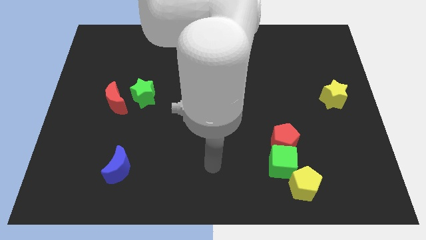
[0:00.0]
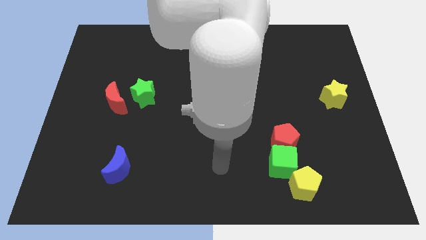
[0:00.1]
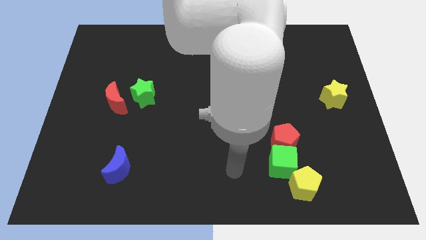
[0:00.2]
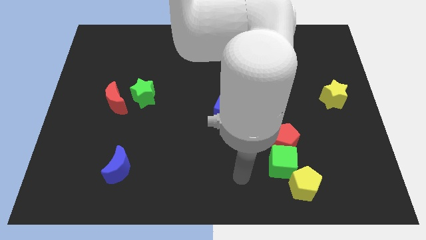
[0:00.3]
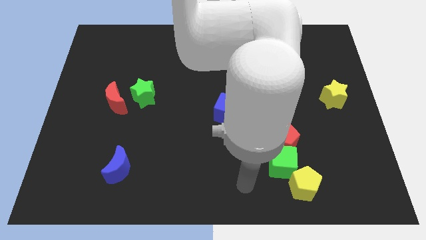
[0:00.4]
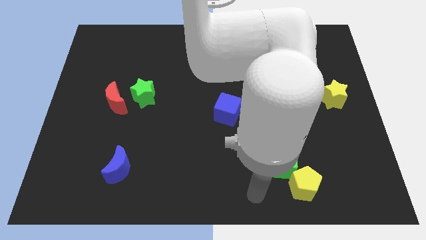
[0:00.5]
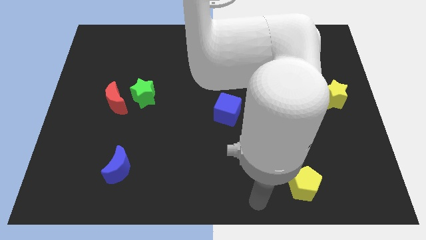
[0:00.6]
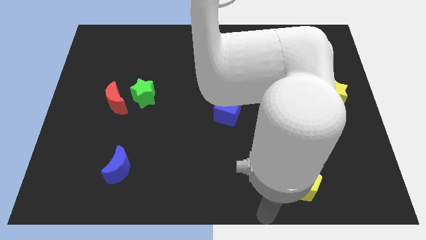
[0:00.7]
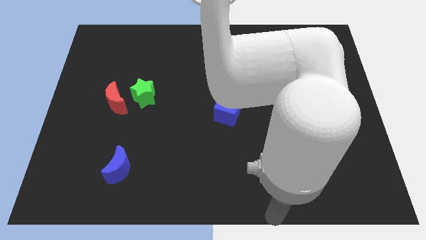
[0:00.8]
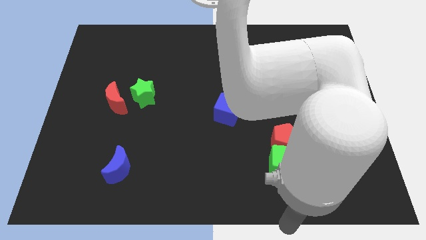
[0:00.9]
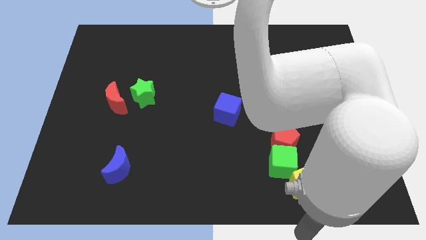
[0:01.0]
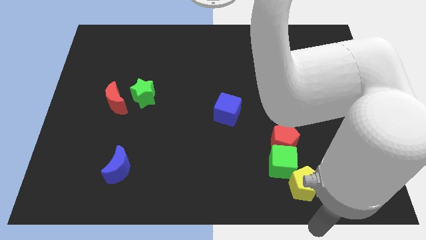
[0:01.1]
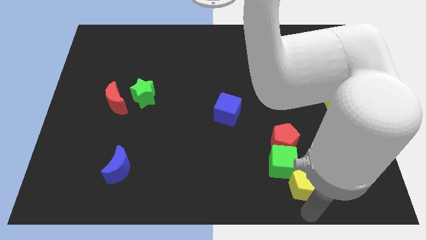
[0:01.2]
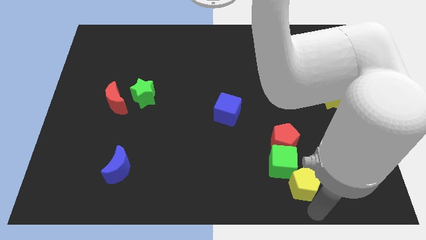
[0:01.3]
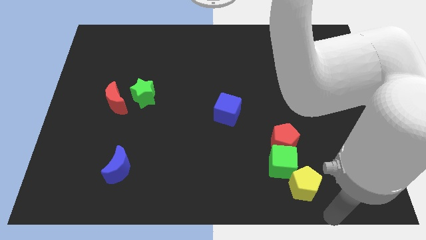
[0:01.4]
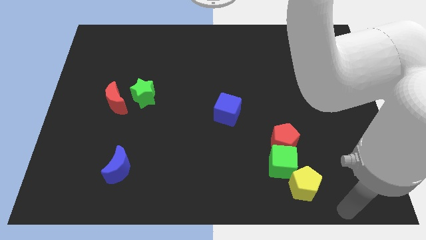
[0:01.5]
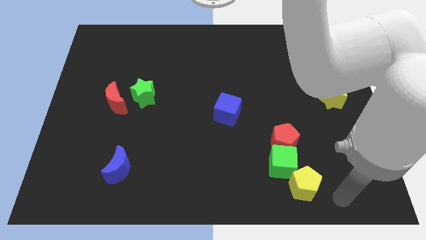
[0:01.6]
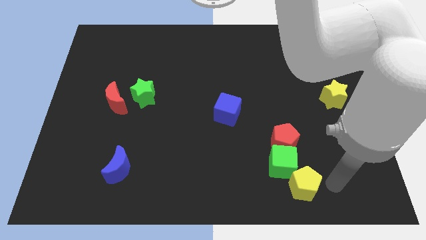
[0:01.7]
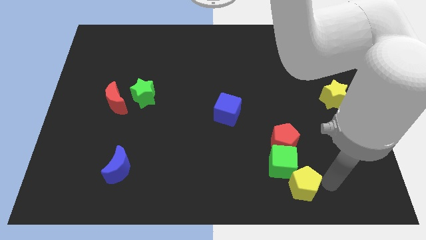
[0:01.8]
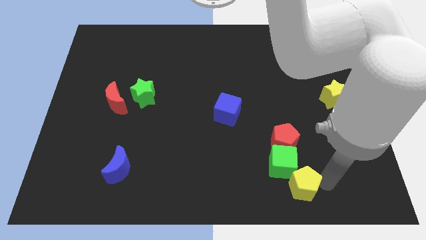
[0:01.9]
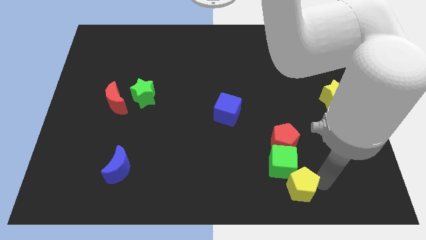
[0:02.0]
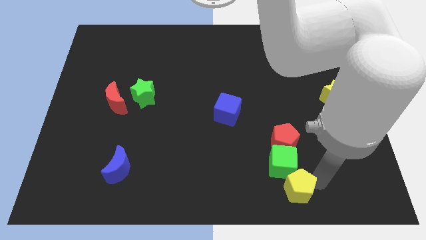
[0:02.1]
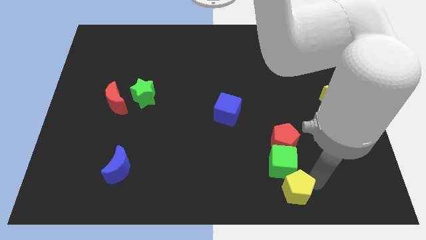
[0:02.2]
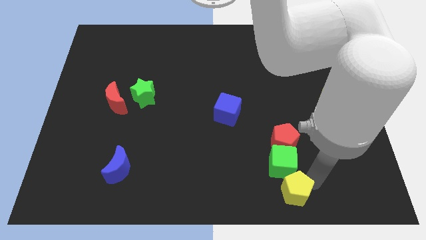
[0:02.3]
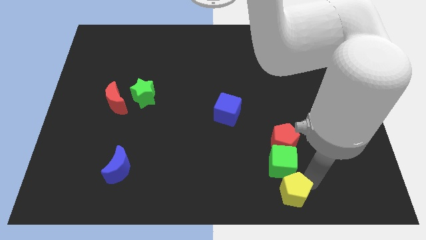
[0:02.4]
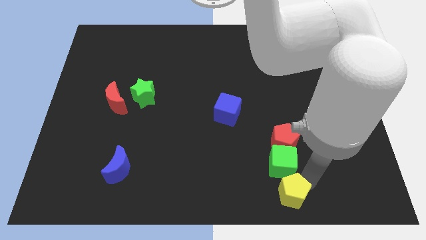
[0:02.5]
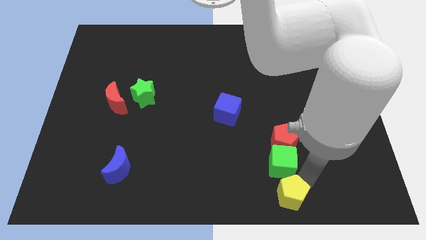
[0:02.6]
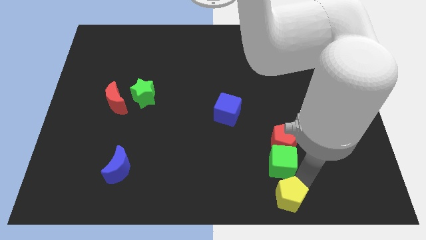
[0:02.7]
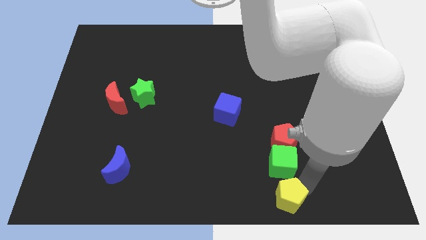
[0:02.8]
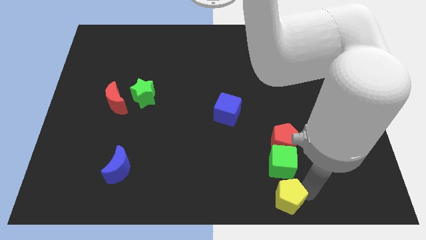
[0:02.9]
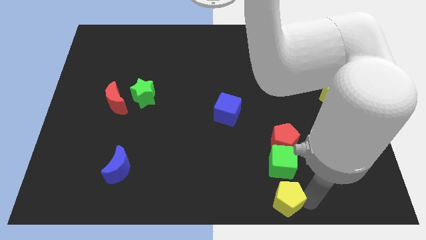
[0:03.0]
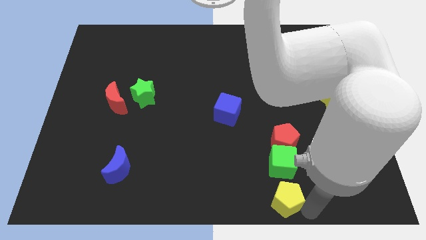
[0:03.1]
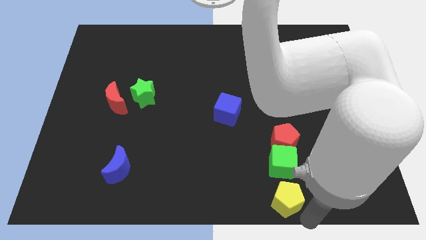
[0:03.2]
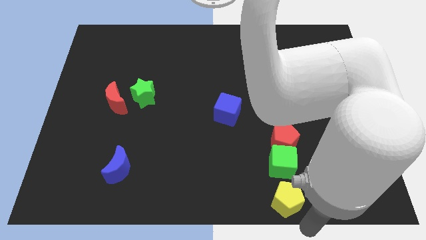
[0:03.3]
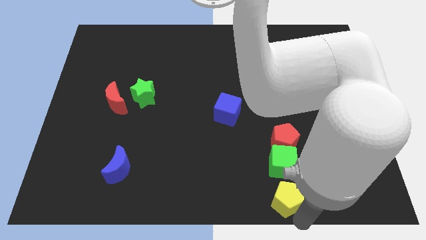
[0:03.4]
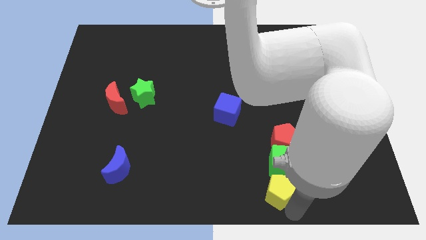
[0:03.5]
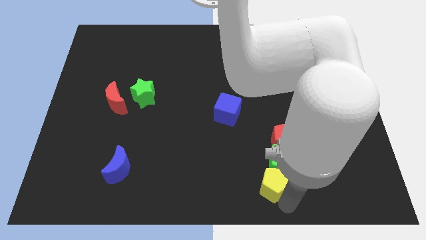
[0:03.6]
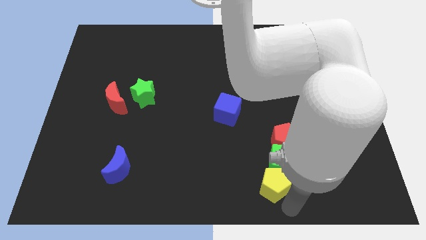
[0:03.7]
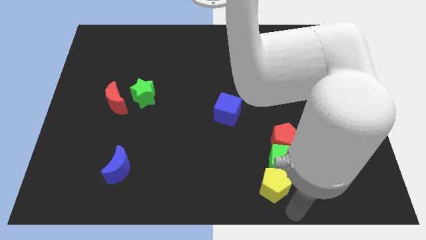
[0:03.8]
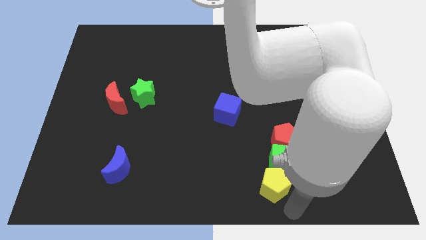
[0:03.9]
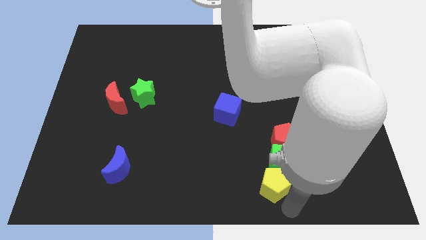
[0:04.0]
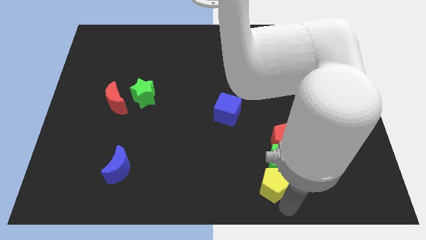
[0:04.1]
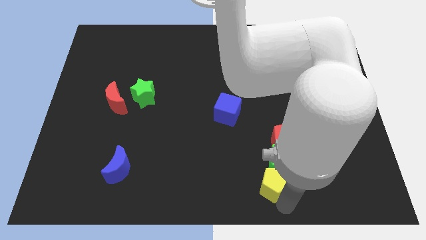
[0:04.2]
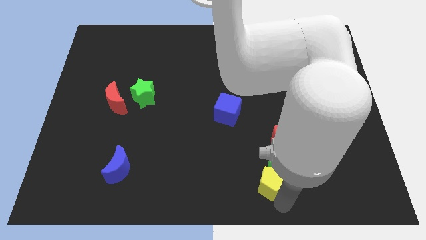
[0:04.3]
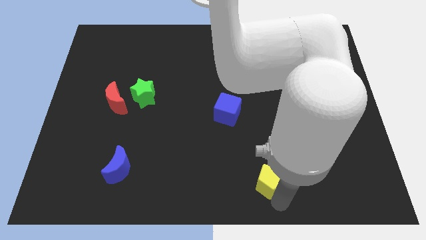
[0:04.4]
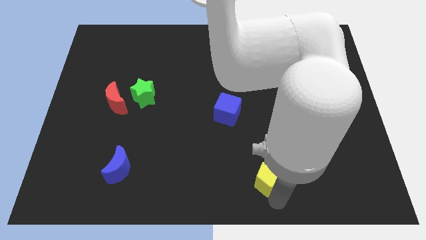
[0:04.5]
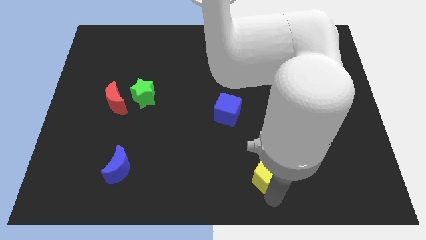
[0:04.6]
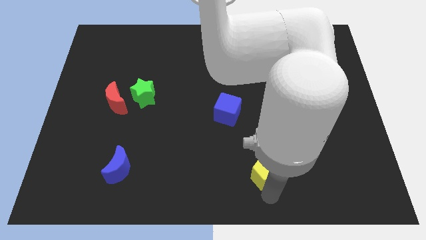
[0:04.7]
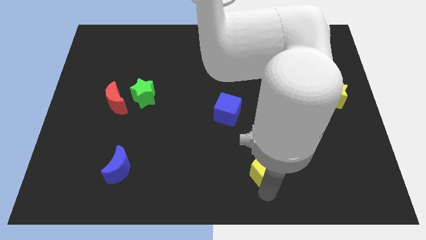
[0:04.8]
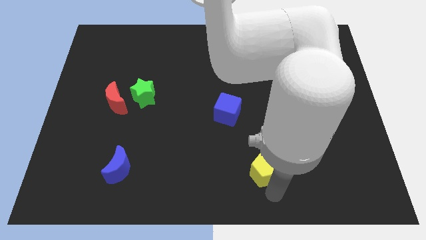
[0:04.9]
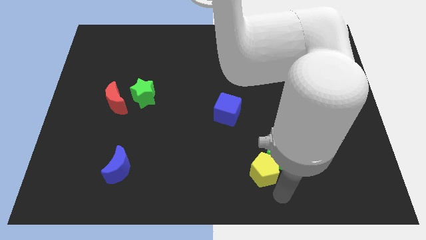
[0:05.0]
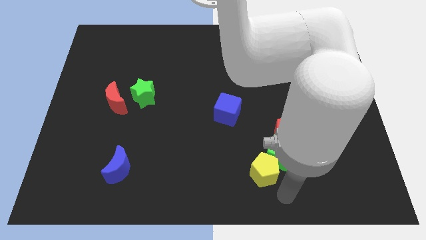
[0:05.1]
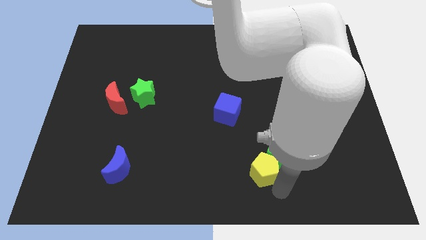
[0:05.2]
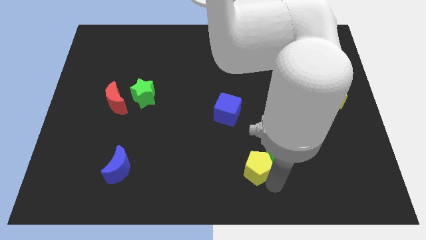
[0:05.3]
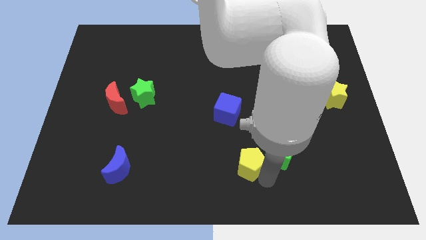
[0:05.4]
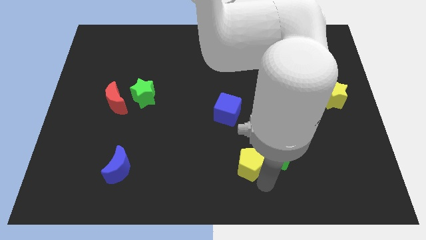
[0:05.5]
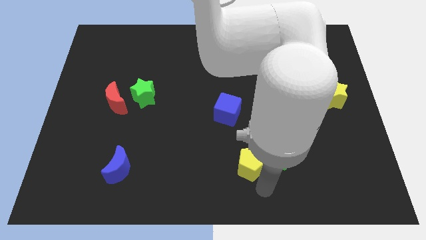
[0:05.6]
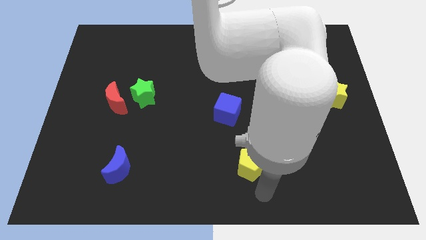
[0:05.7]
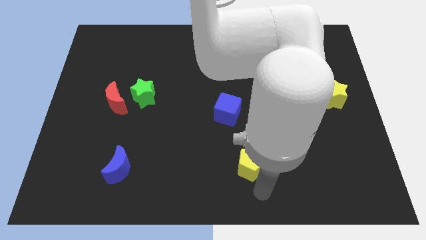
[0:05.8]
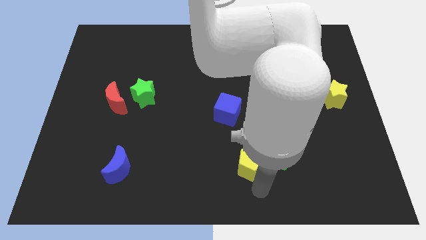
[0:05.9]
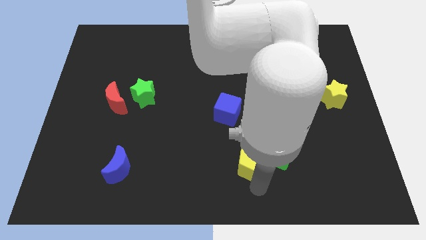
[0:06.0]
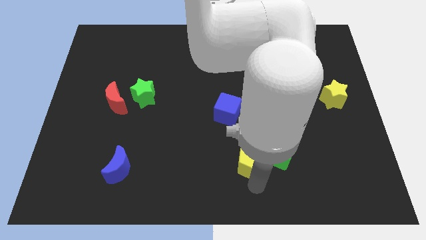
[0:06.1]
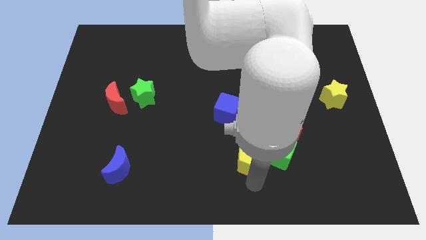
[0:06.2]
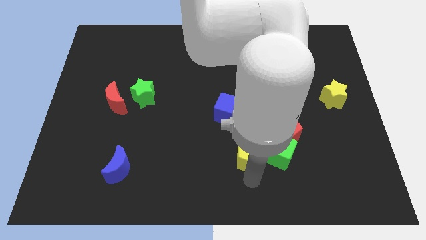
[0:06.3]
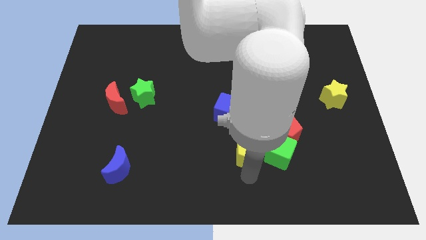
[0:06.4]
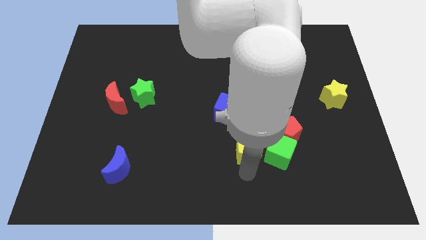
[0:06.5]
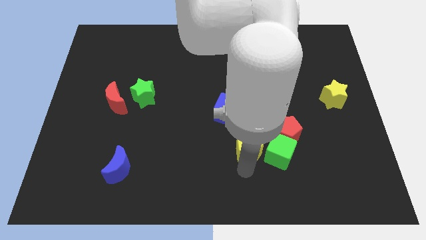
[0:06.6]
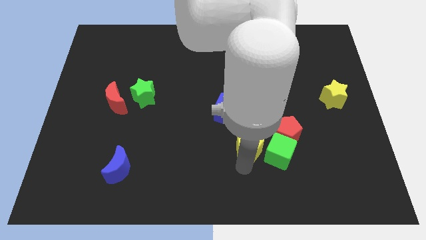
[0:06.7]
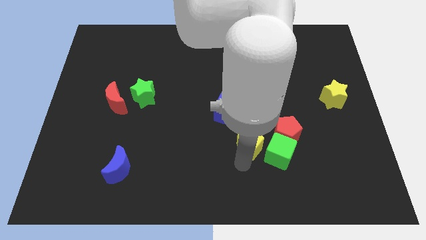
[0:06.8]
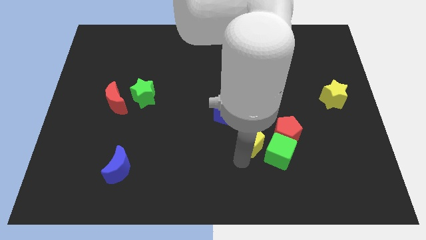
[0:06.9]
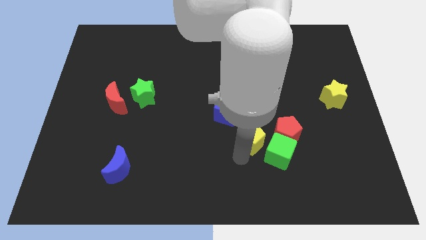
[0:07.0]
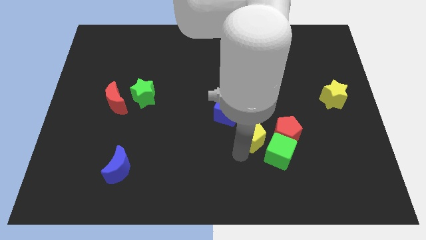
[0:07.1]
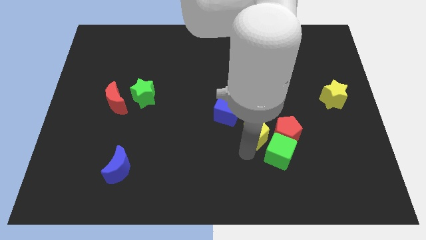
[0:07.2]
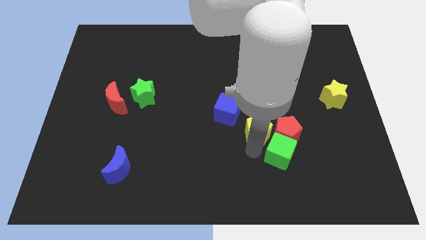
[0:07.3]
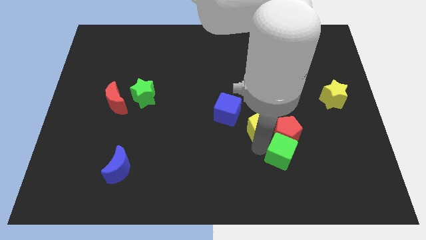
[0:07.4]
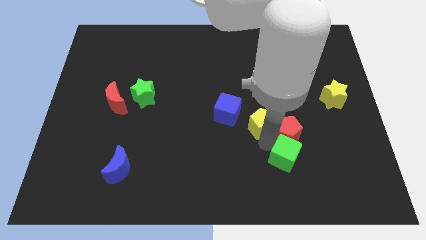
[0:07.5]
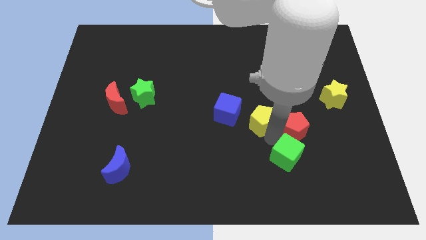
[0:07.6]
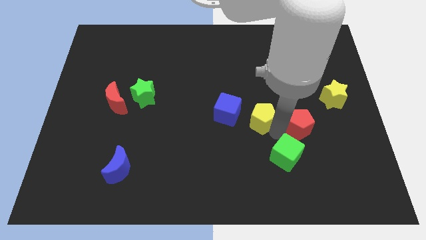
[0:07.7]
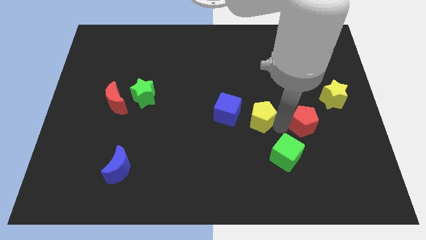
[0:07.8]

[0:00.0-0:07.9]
put the yellow pentagon to the center of the board
